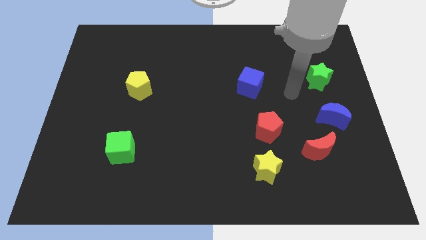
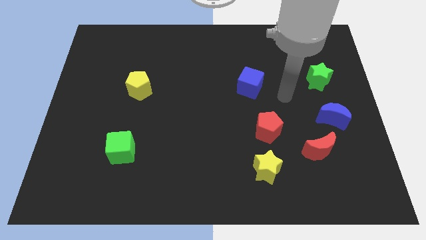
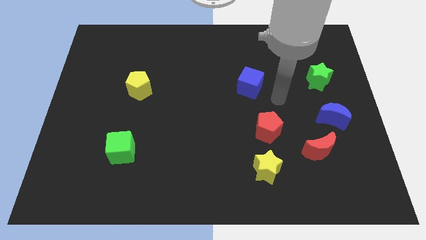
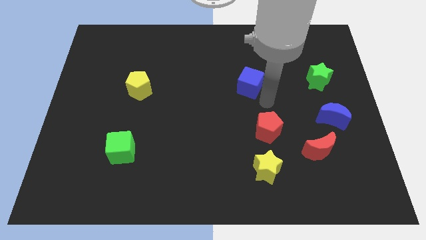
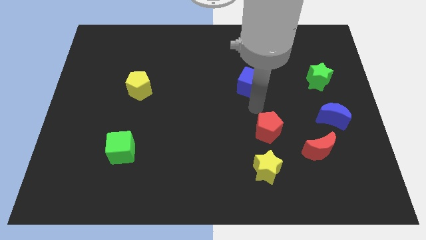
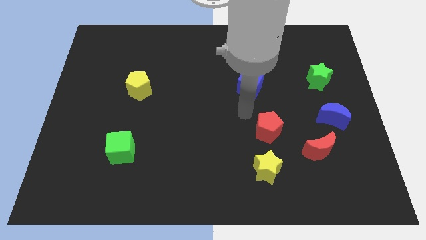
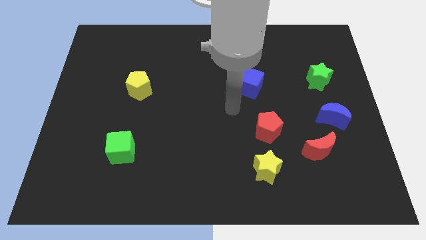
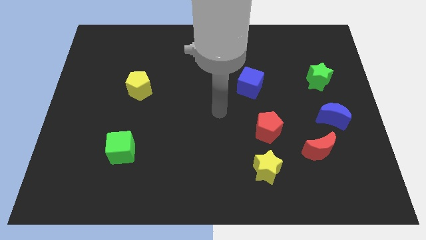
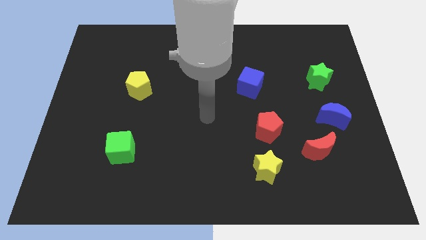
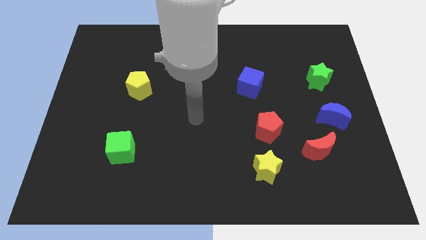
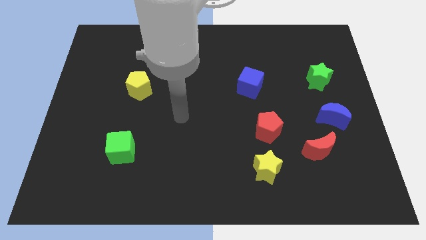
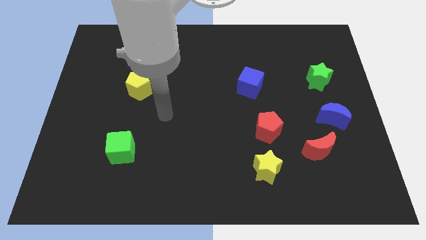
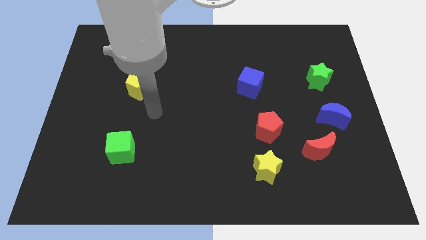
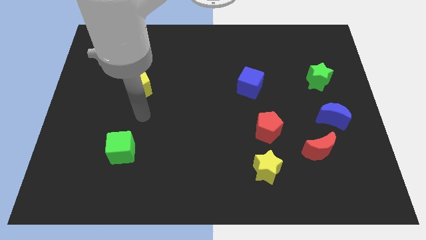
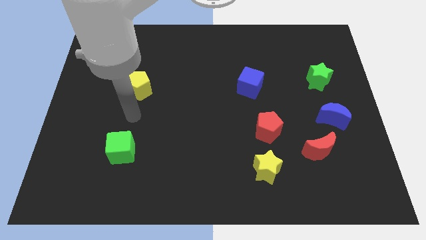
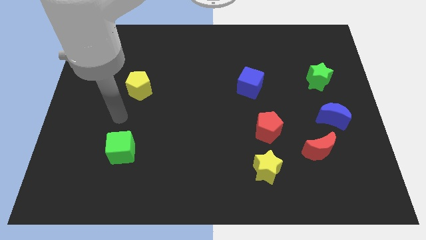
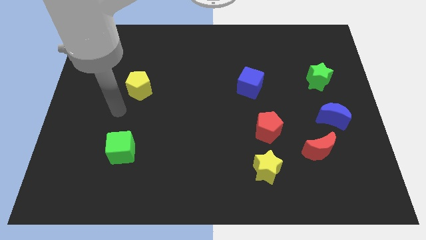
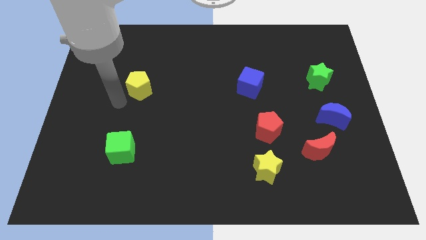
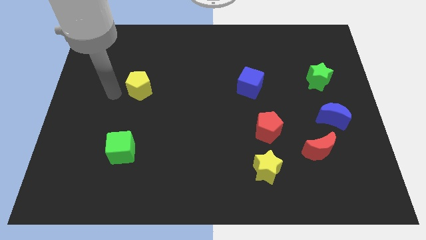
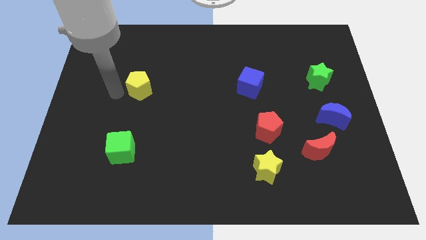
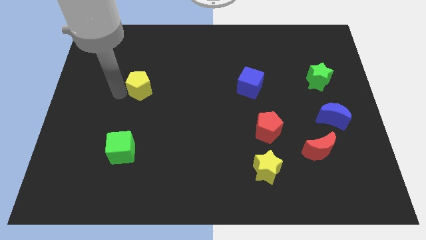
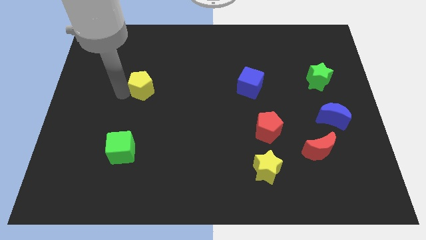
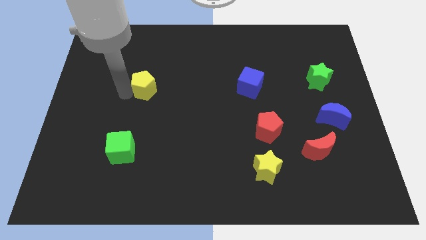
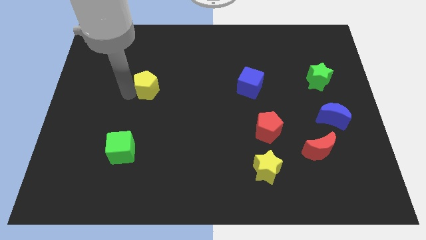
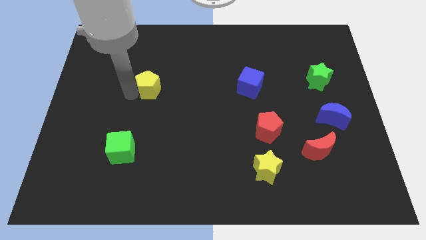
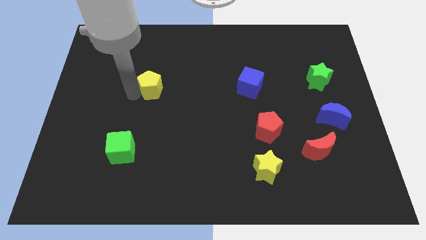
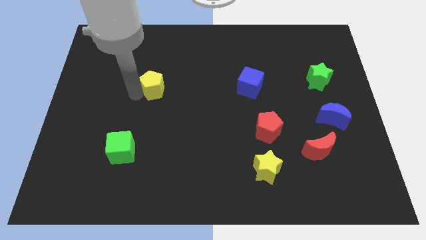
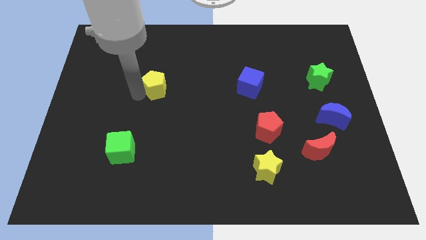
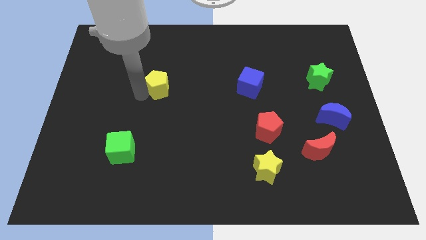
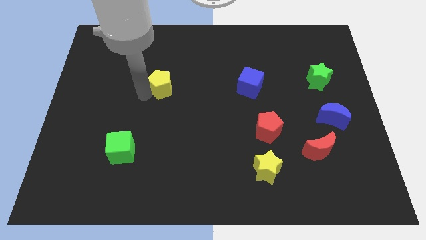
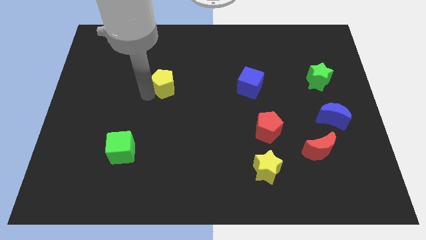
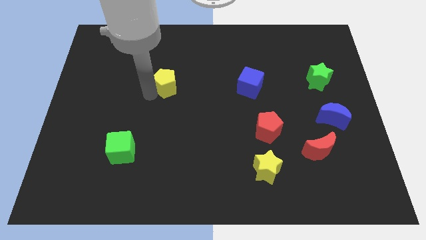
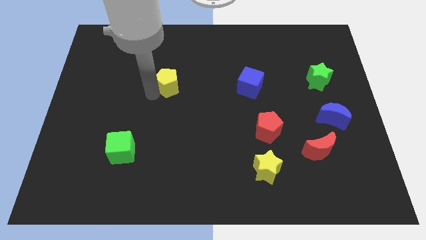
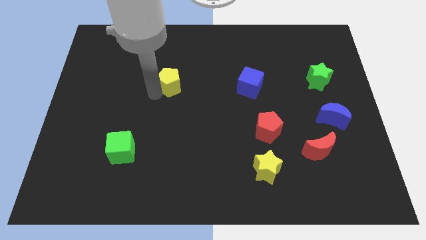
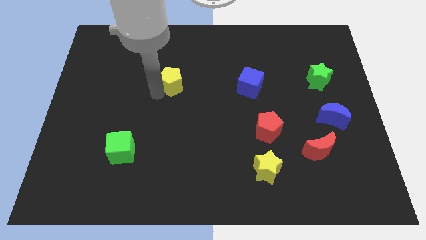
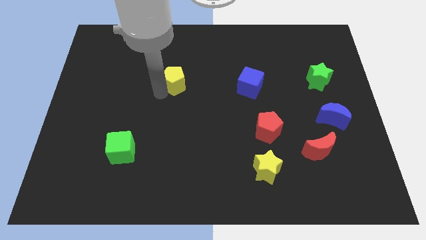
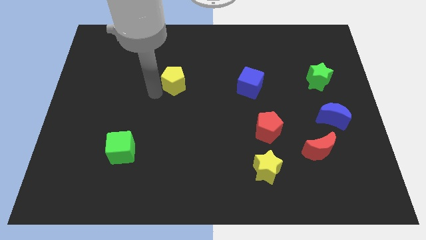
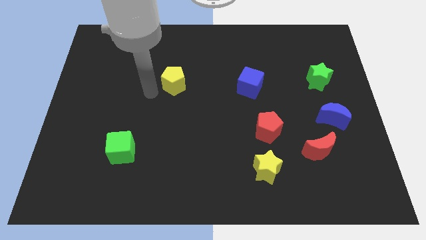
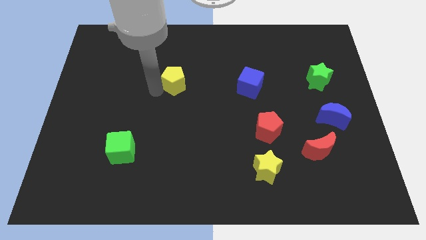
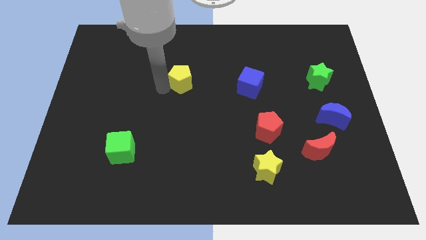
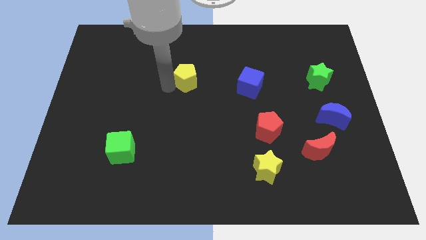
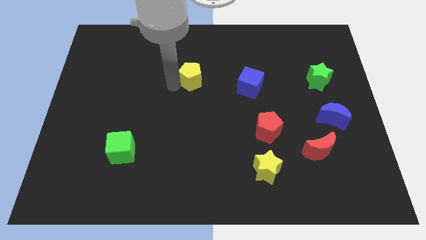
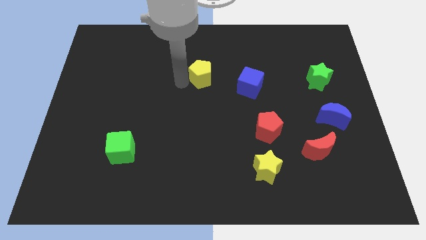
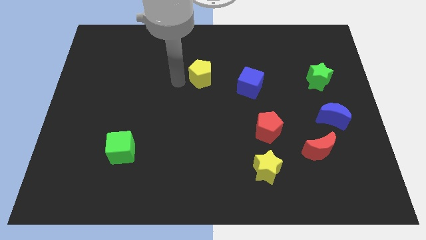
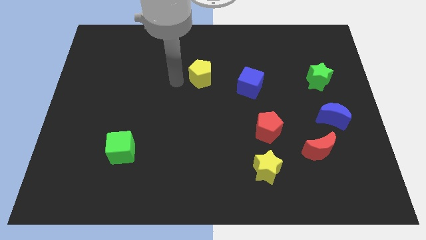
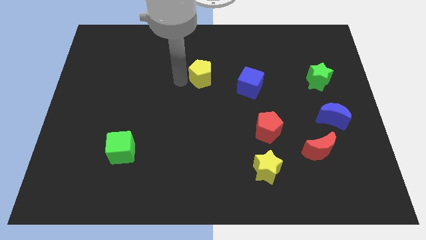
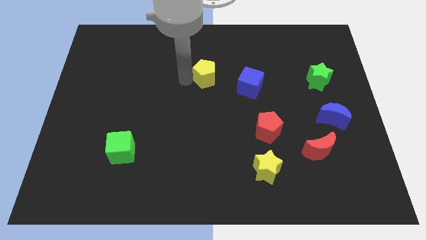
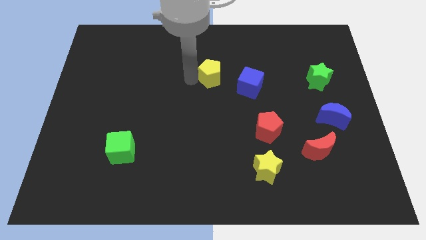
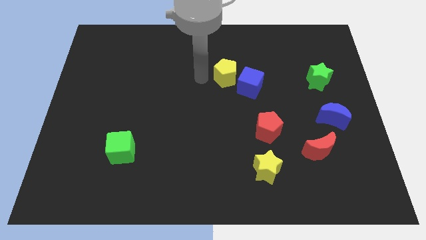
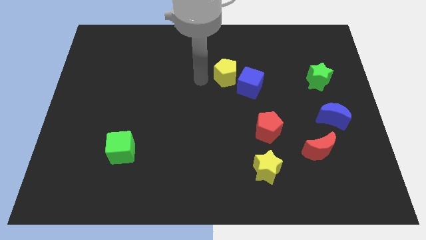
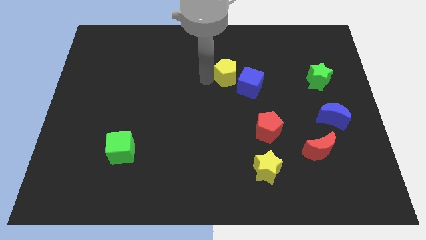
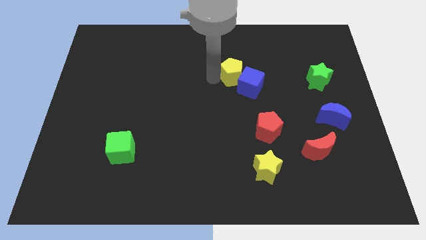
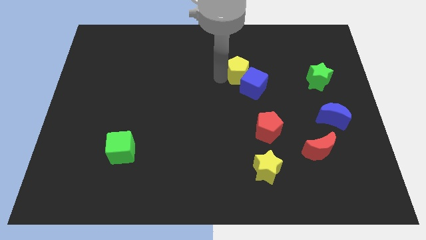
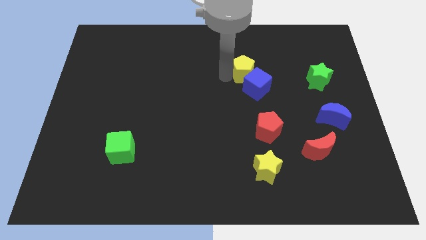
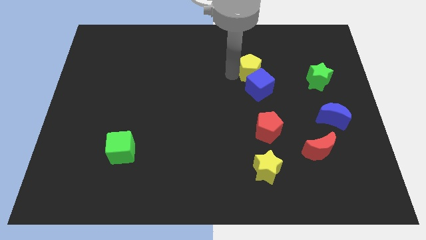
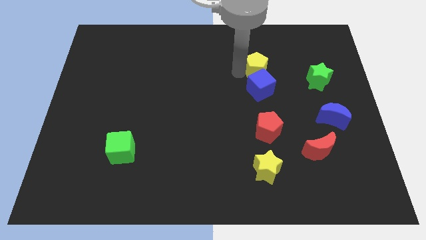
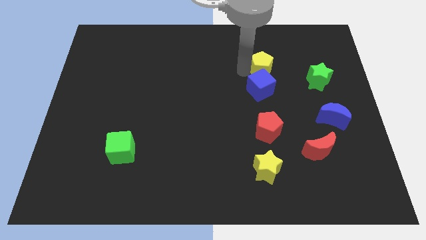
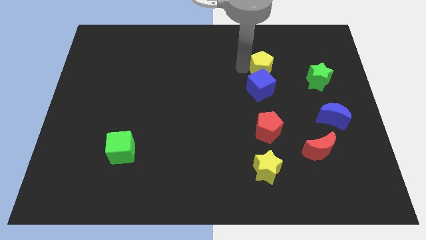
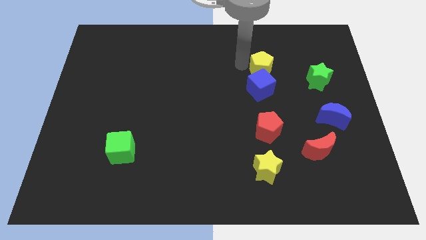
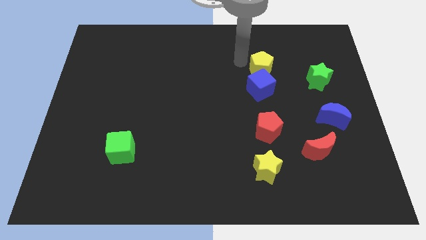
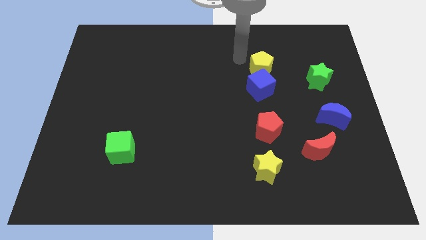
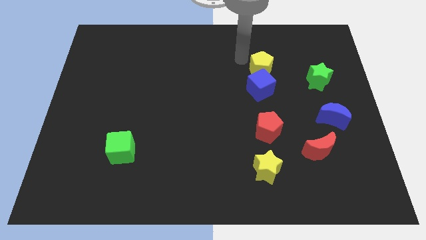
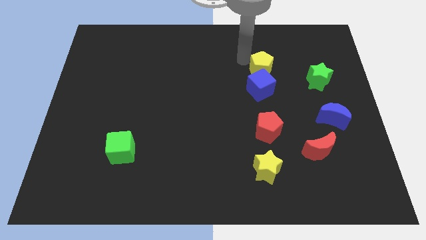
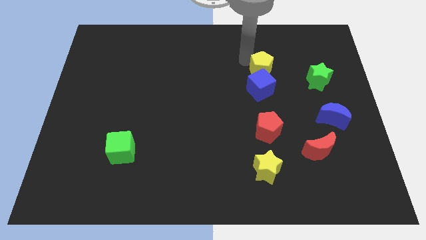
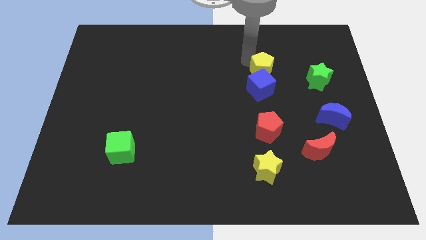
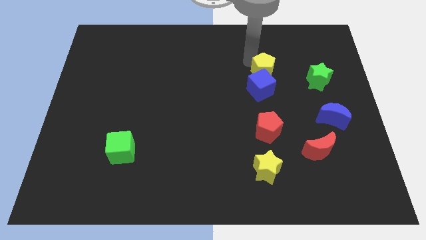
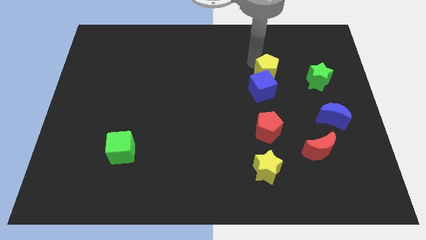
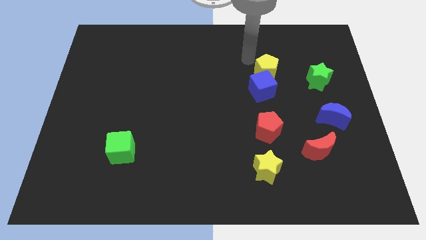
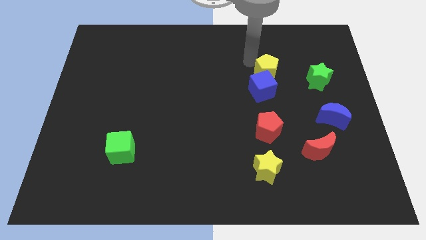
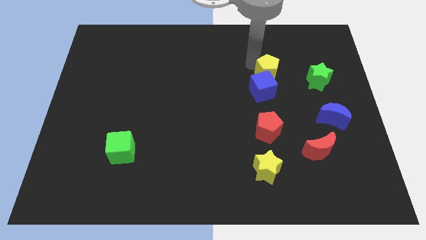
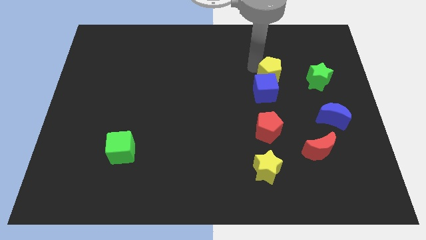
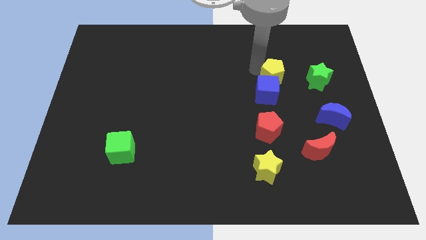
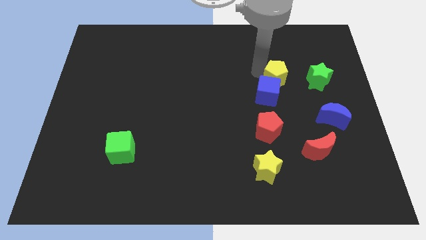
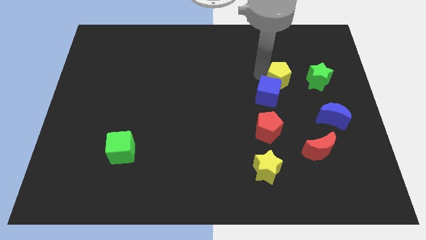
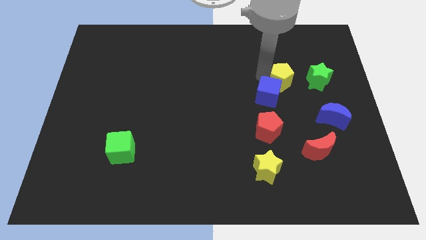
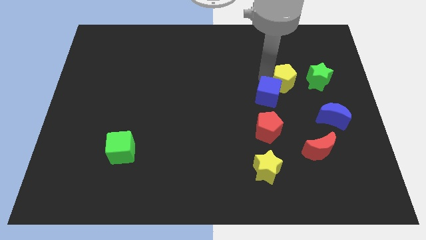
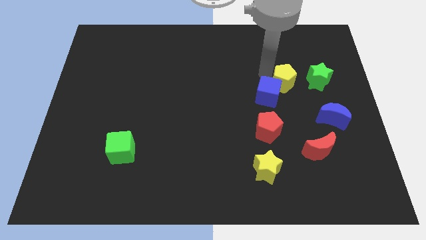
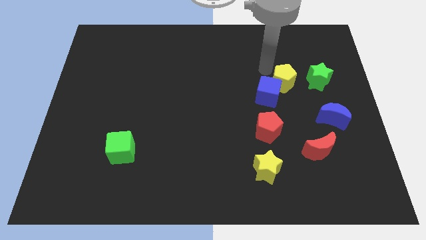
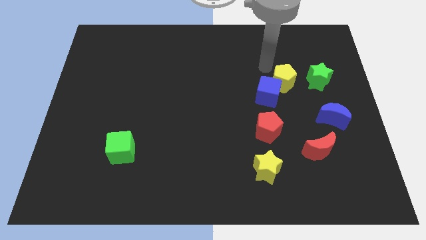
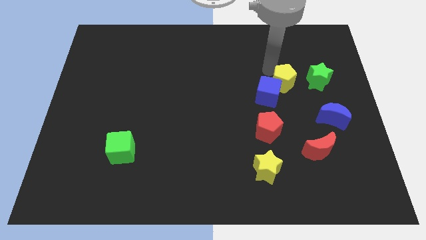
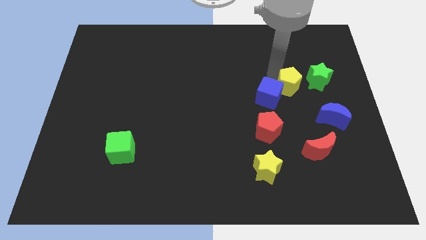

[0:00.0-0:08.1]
move the yellow pentagon to the bottom left side of the green star

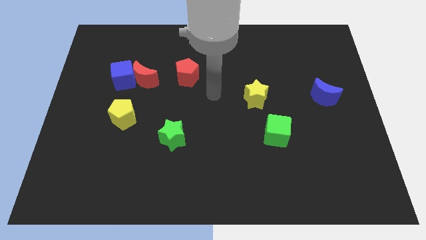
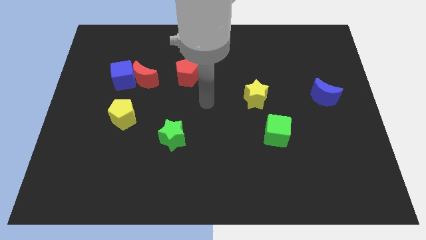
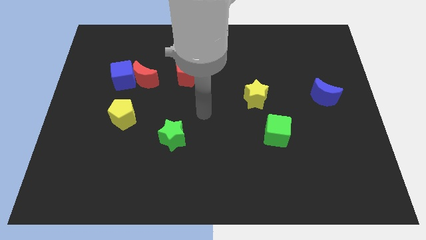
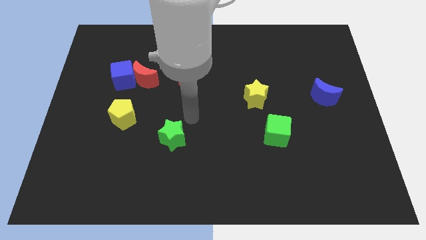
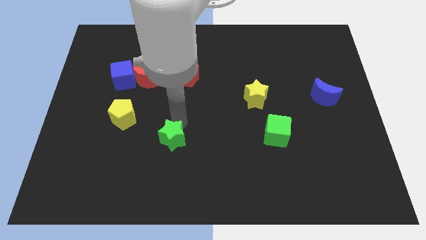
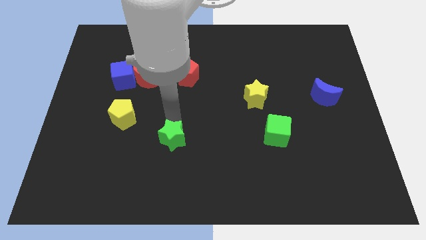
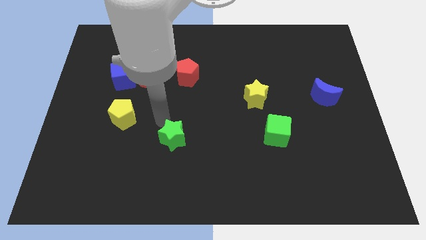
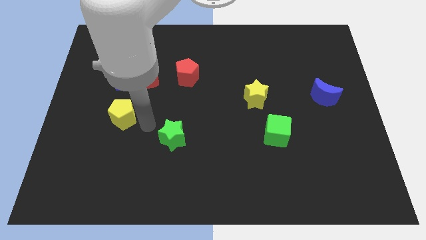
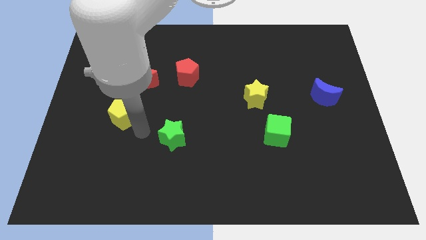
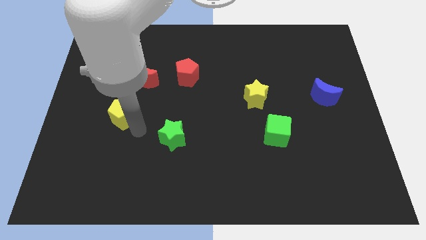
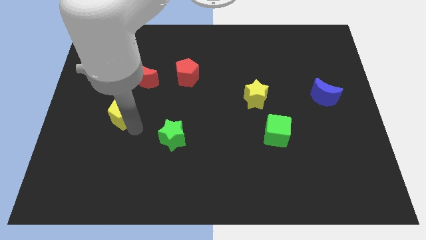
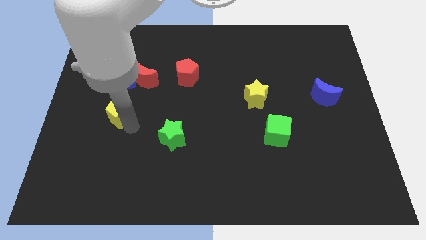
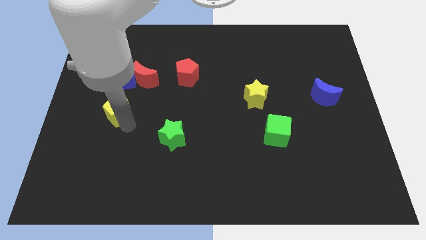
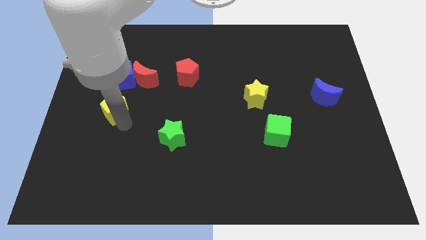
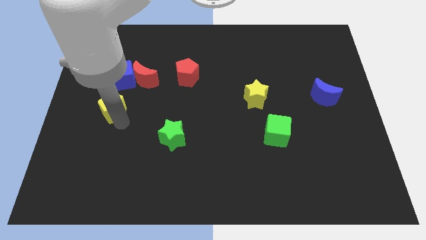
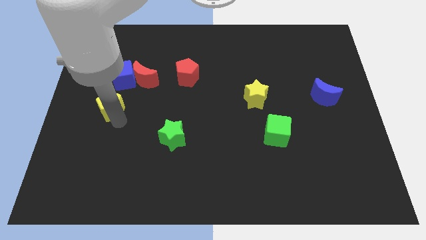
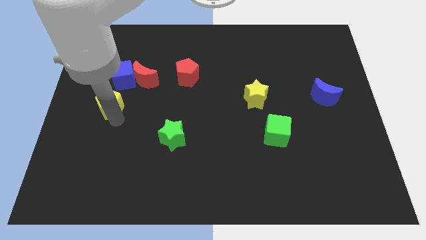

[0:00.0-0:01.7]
put the yellow pentagon to the bottom left of the blue cube
